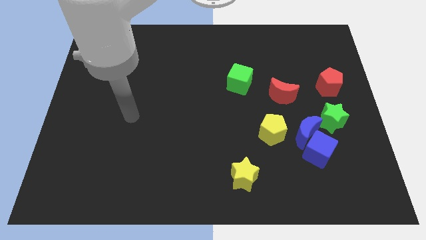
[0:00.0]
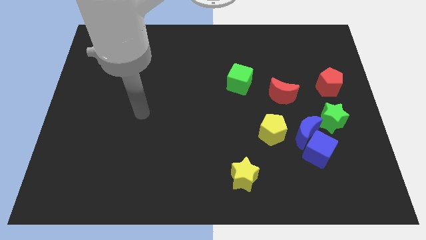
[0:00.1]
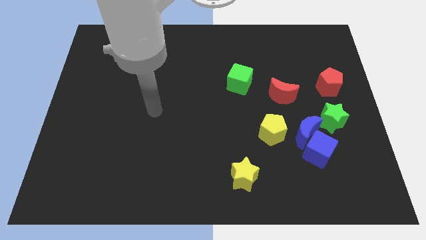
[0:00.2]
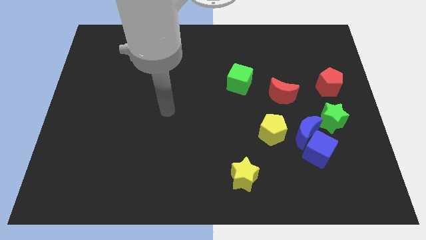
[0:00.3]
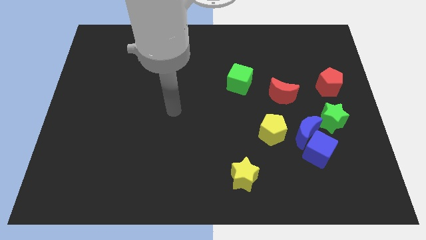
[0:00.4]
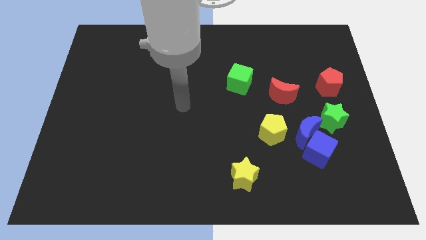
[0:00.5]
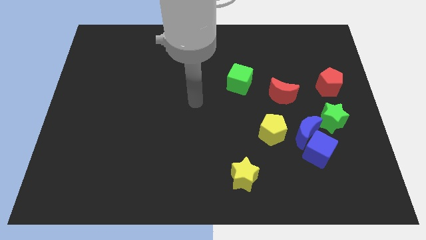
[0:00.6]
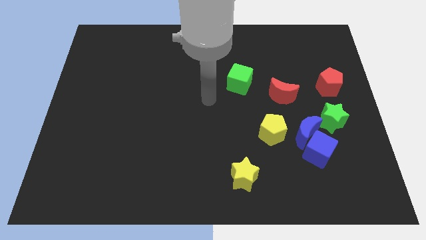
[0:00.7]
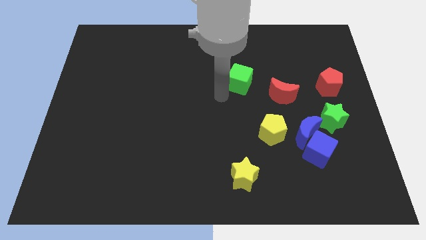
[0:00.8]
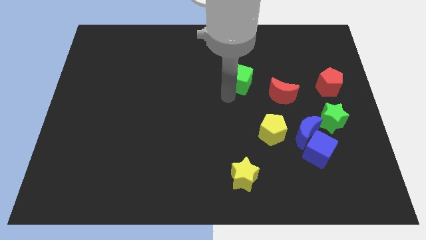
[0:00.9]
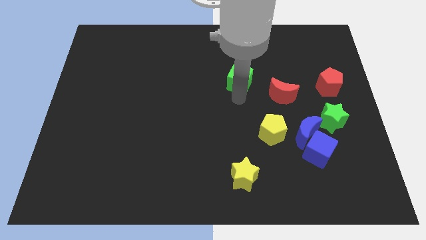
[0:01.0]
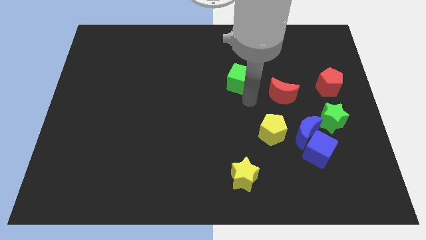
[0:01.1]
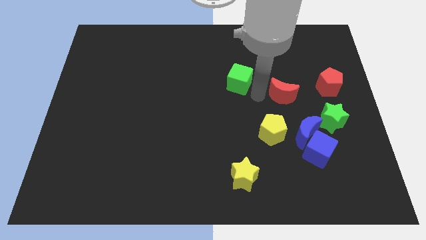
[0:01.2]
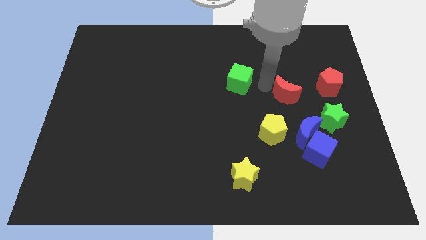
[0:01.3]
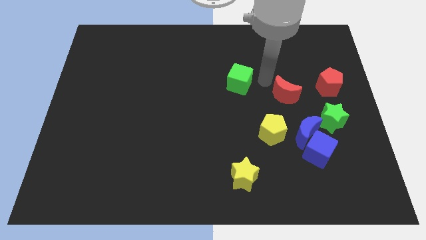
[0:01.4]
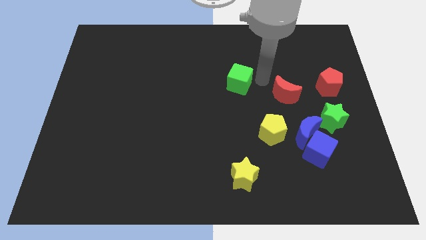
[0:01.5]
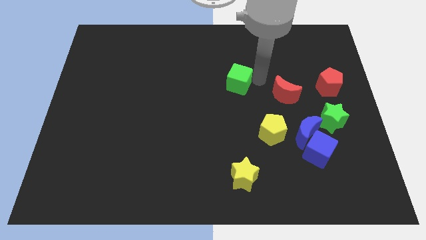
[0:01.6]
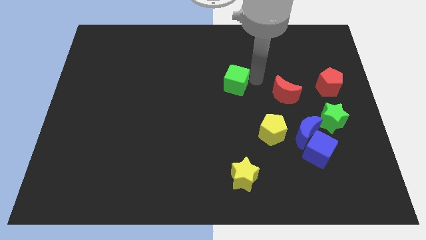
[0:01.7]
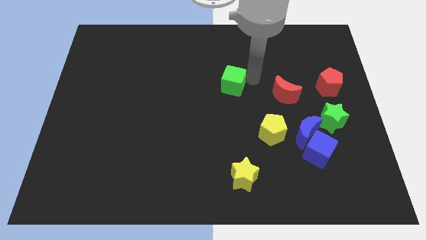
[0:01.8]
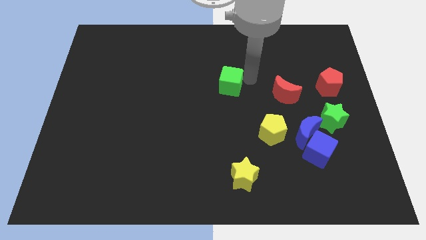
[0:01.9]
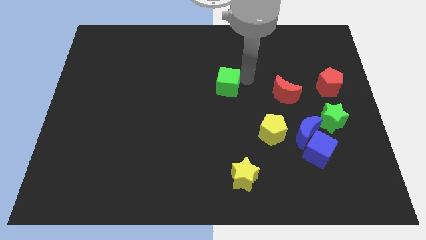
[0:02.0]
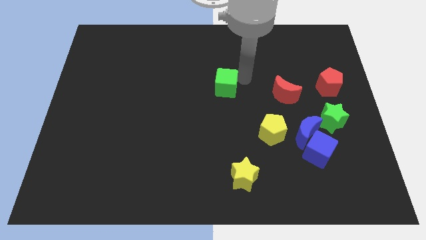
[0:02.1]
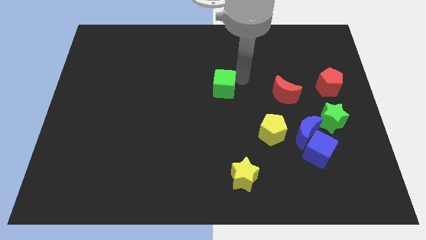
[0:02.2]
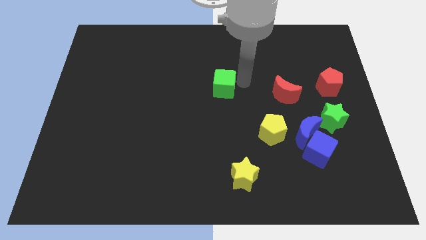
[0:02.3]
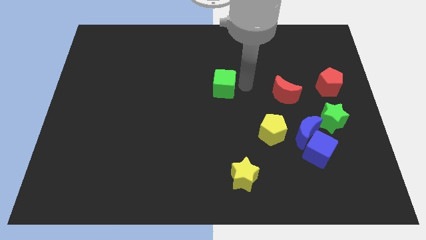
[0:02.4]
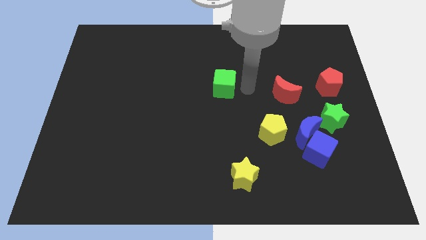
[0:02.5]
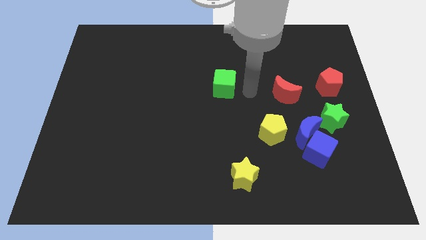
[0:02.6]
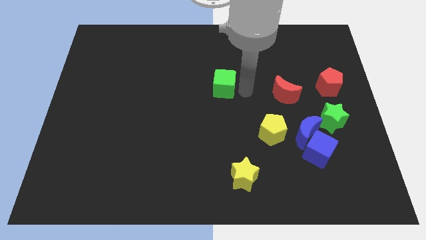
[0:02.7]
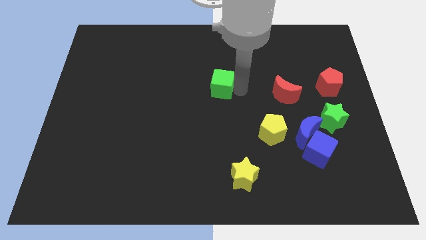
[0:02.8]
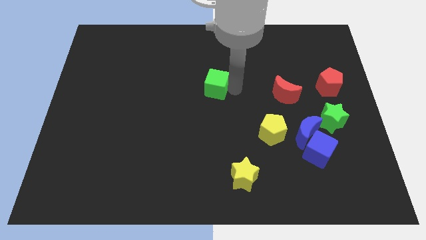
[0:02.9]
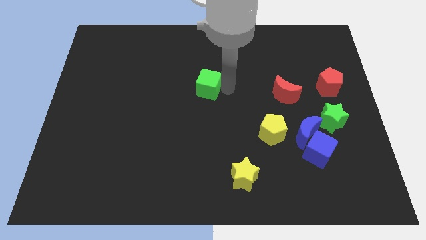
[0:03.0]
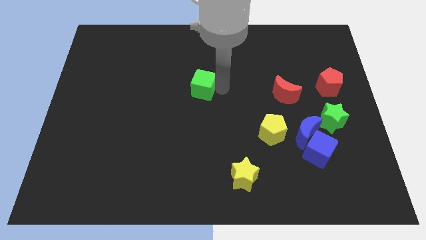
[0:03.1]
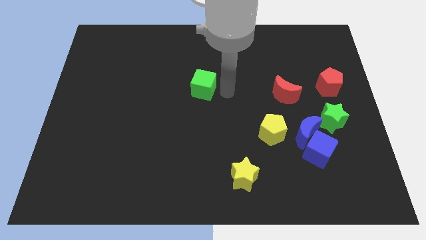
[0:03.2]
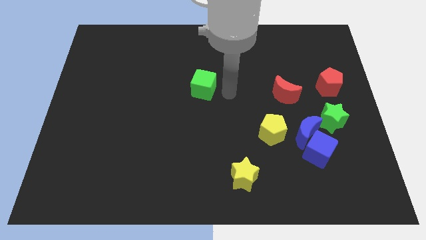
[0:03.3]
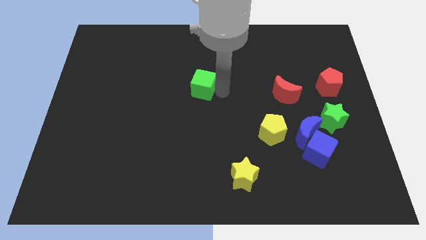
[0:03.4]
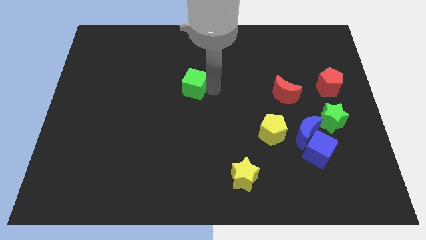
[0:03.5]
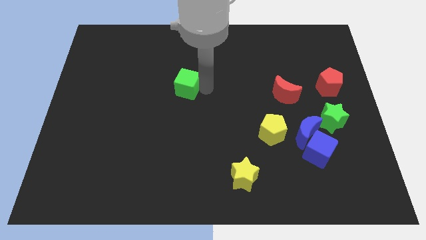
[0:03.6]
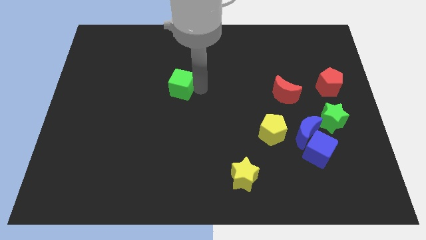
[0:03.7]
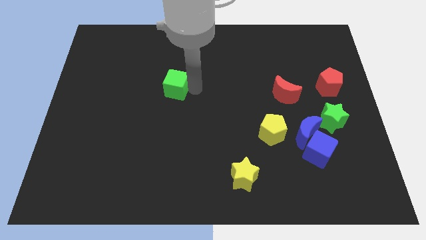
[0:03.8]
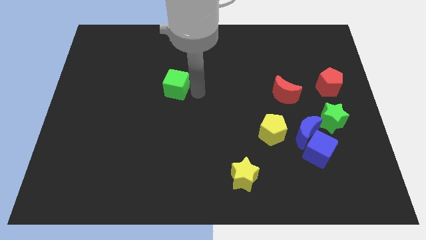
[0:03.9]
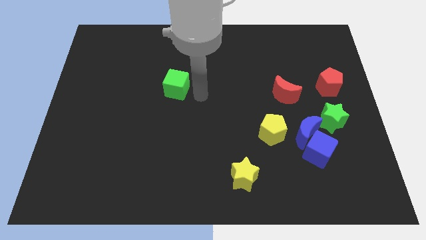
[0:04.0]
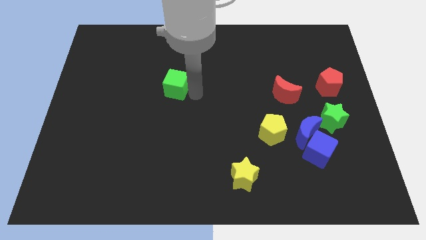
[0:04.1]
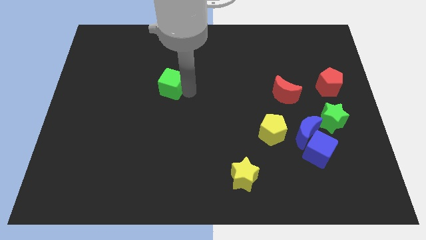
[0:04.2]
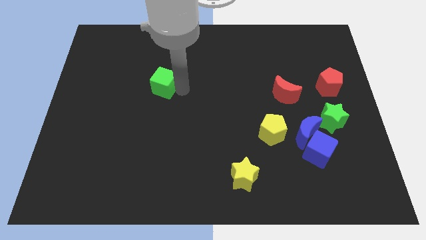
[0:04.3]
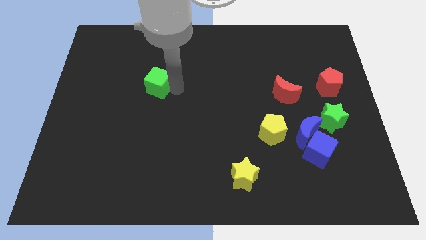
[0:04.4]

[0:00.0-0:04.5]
push the green cube to the left

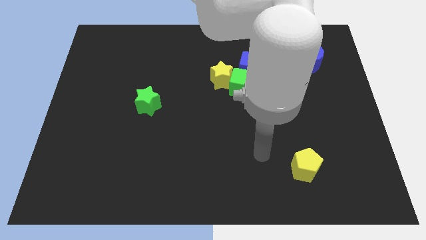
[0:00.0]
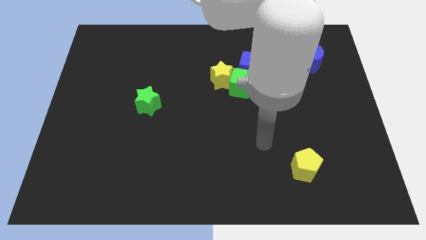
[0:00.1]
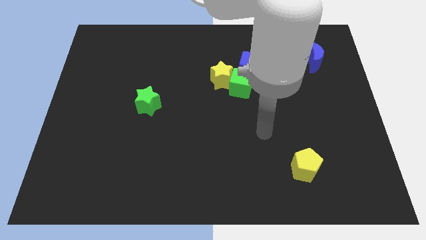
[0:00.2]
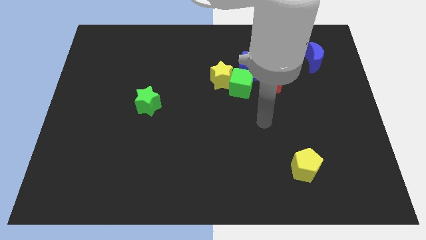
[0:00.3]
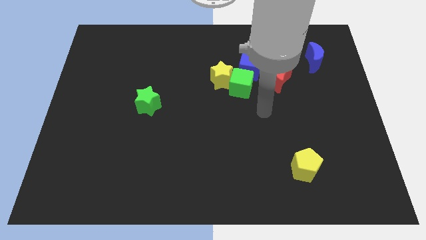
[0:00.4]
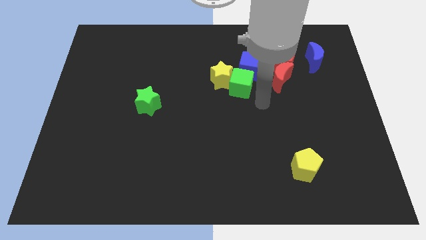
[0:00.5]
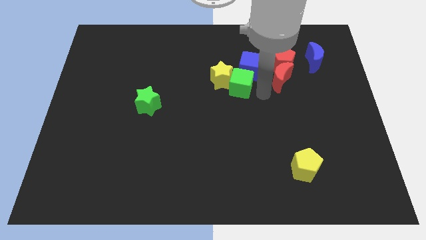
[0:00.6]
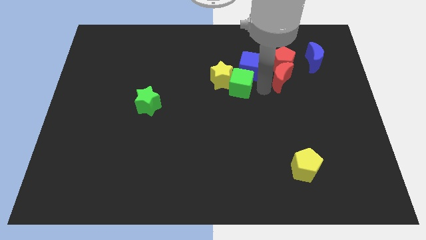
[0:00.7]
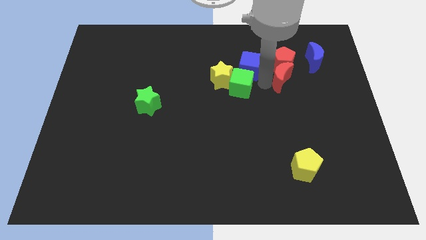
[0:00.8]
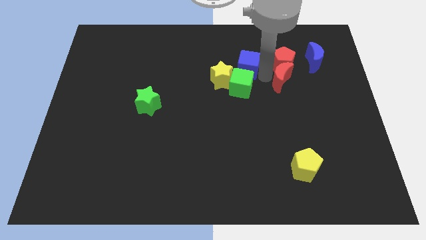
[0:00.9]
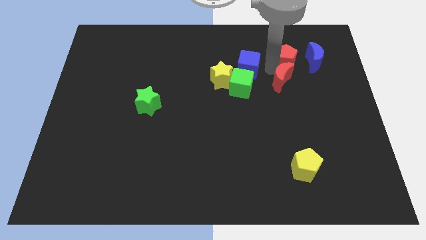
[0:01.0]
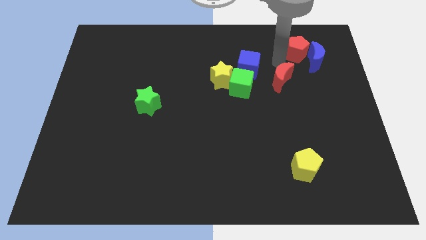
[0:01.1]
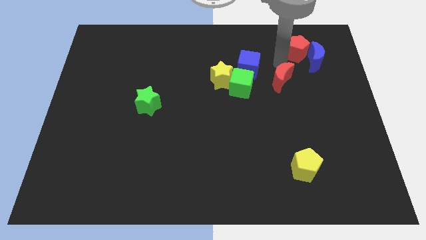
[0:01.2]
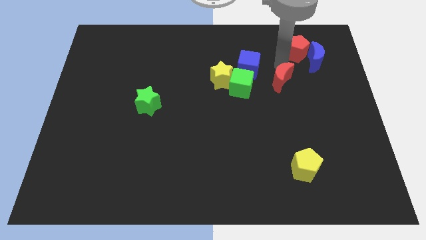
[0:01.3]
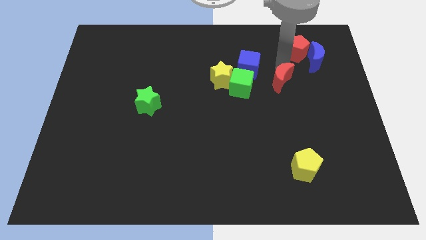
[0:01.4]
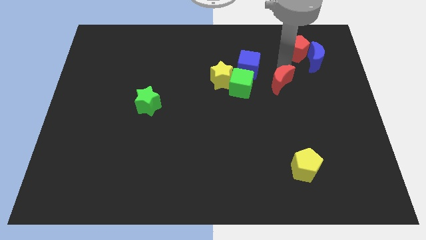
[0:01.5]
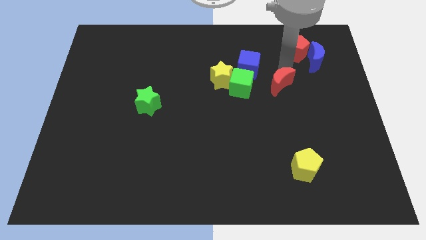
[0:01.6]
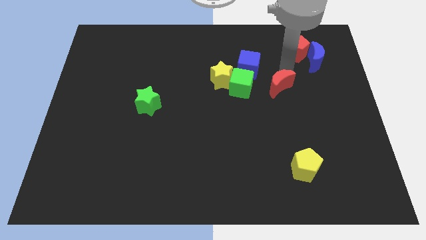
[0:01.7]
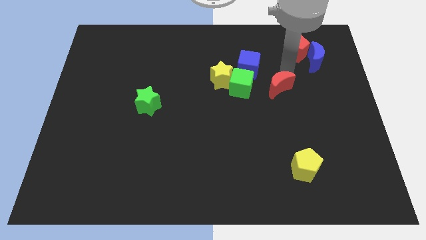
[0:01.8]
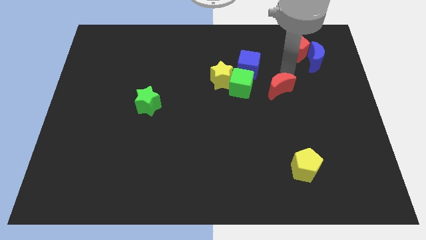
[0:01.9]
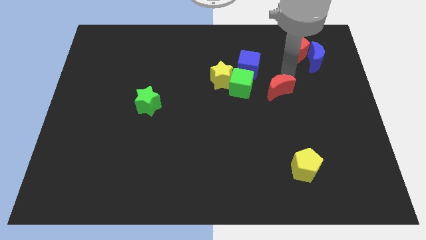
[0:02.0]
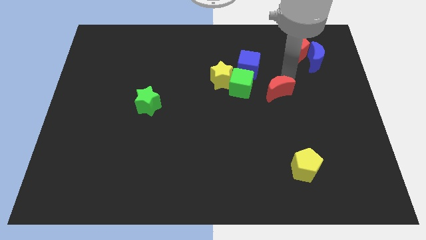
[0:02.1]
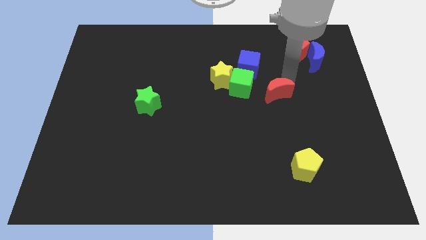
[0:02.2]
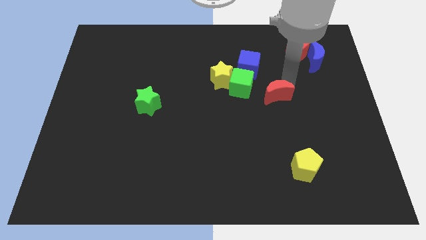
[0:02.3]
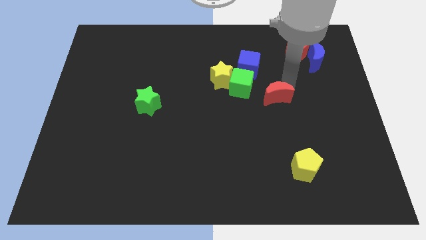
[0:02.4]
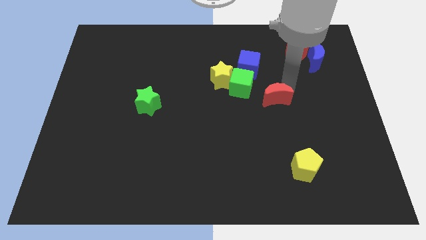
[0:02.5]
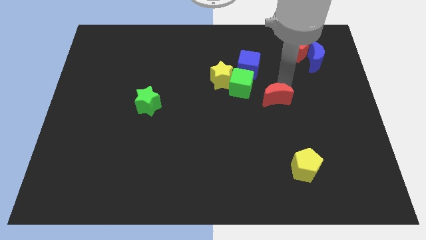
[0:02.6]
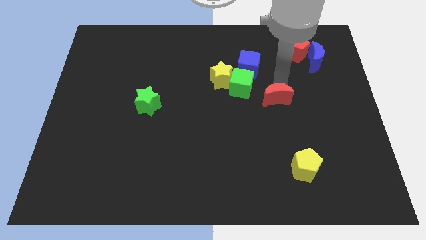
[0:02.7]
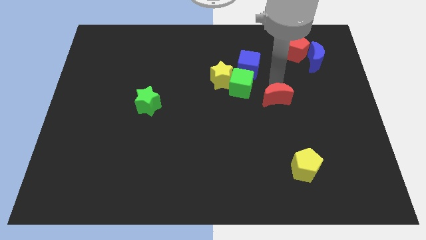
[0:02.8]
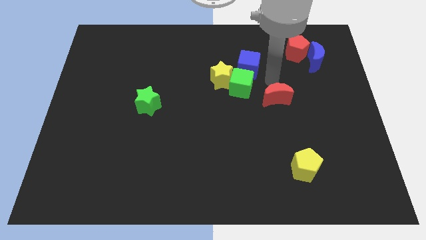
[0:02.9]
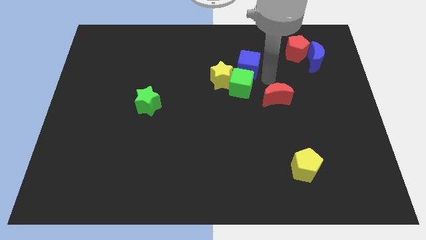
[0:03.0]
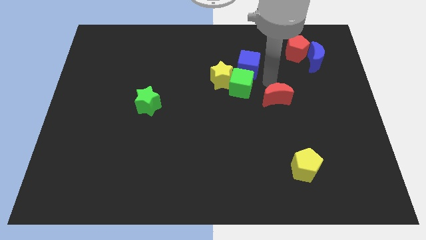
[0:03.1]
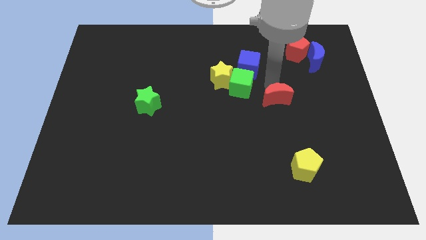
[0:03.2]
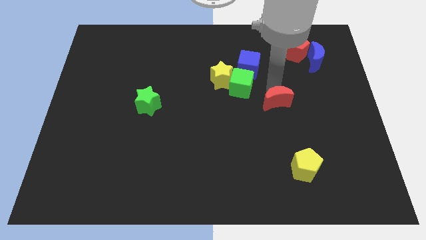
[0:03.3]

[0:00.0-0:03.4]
slightly move the red moon downwards
